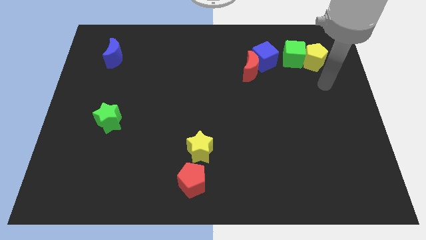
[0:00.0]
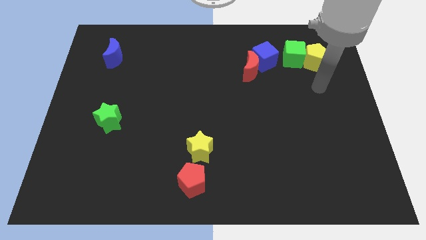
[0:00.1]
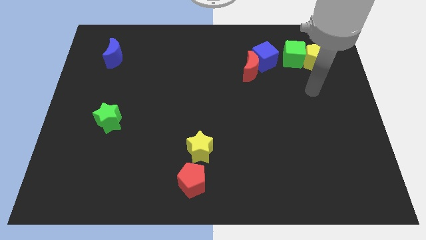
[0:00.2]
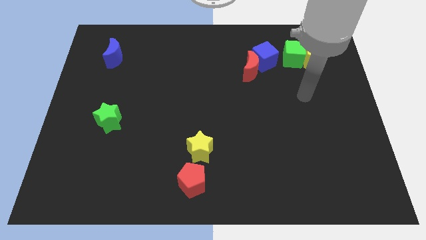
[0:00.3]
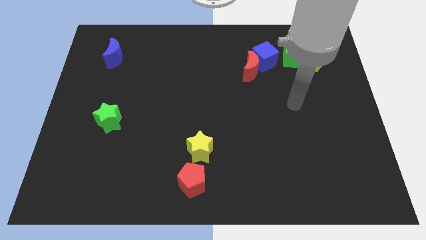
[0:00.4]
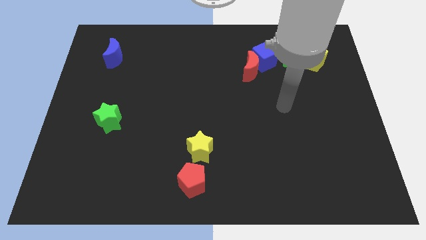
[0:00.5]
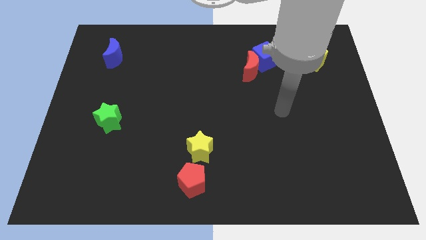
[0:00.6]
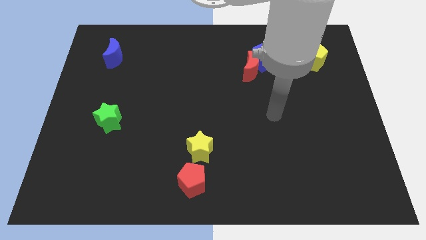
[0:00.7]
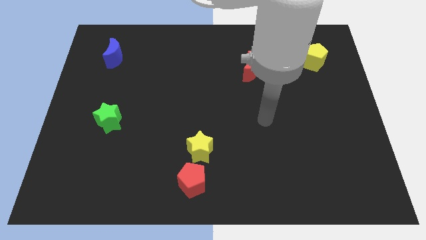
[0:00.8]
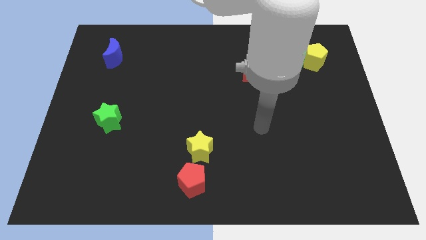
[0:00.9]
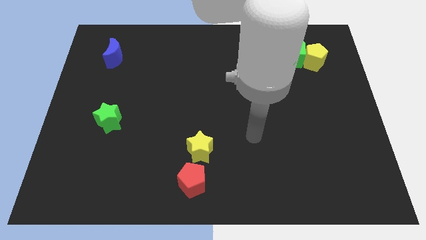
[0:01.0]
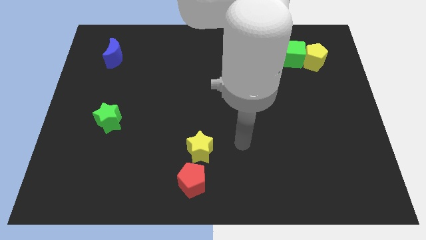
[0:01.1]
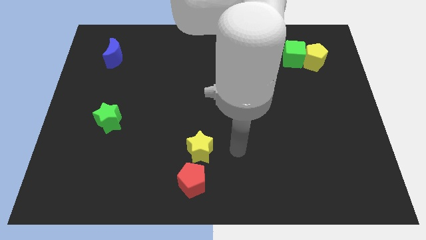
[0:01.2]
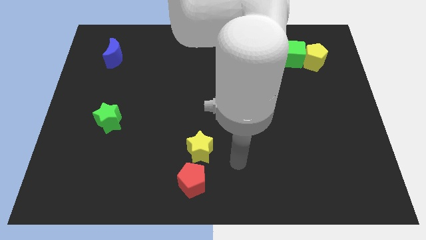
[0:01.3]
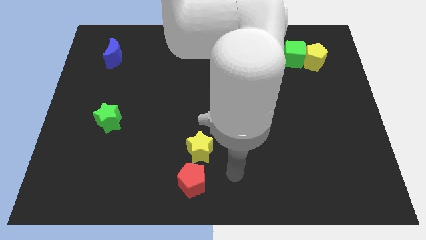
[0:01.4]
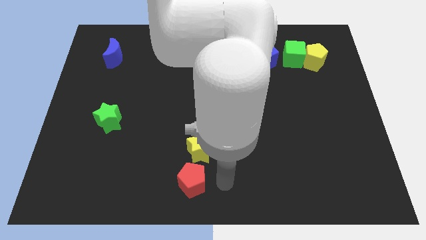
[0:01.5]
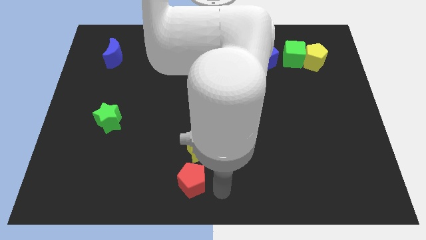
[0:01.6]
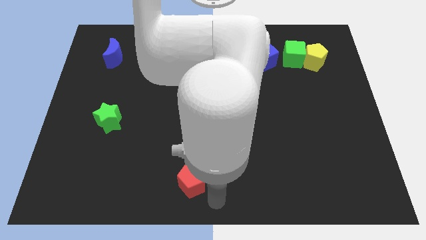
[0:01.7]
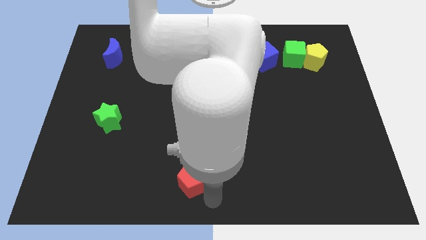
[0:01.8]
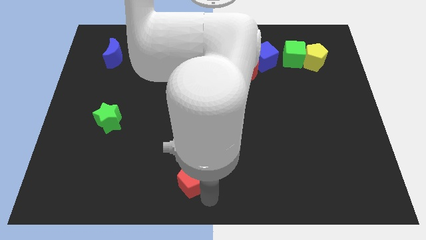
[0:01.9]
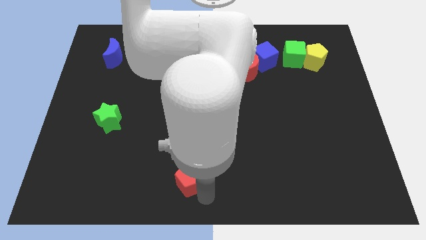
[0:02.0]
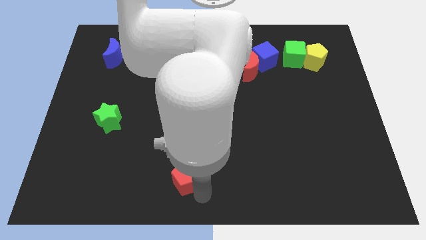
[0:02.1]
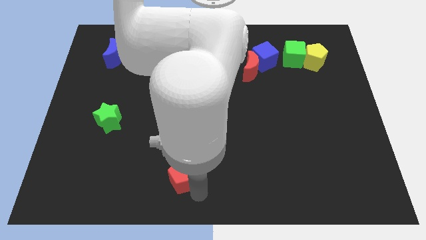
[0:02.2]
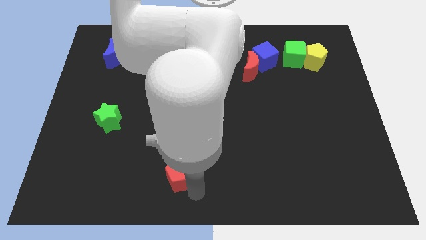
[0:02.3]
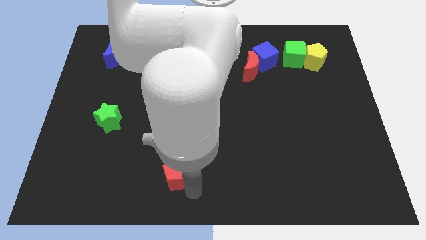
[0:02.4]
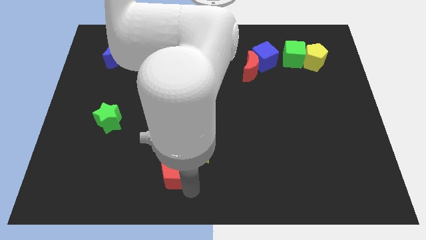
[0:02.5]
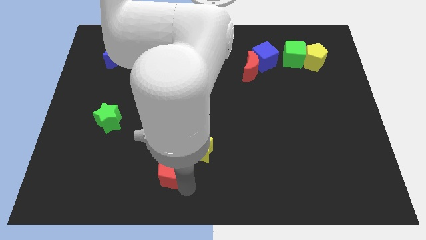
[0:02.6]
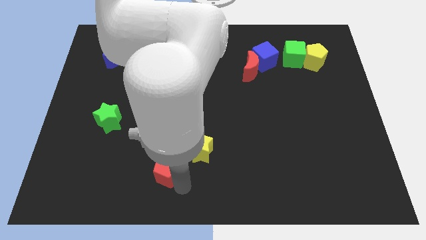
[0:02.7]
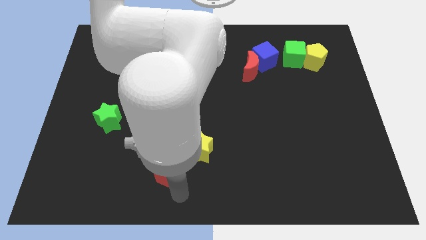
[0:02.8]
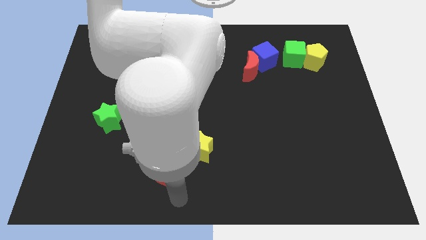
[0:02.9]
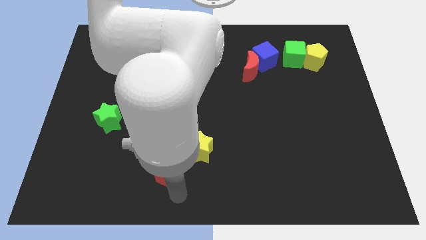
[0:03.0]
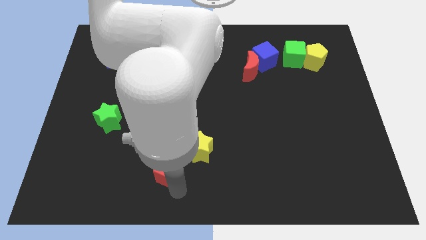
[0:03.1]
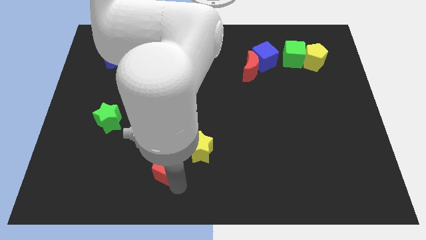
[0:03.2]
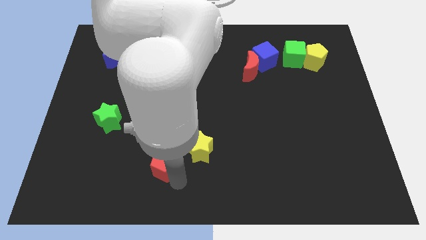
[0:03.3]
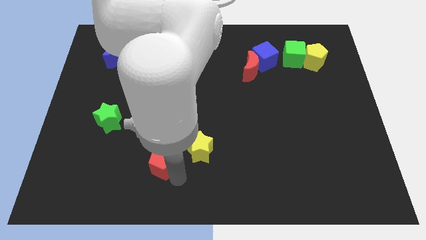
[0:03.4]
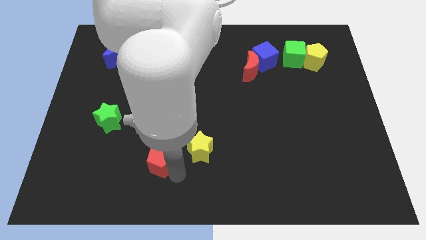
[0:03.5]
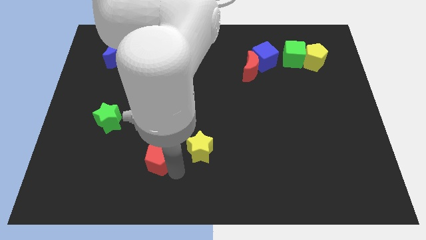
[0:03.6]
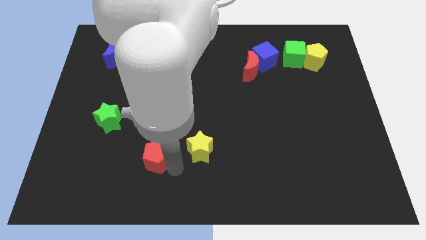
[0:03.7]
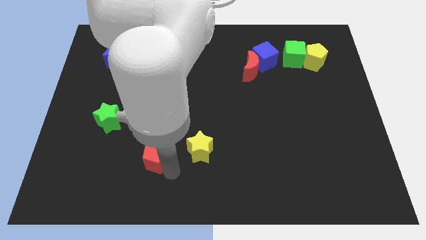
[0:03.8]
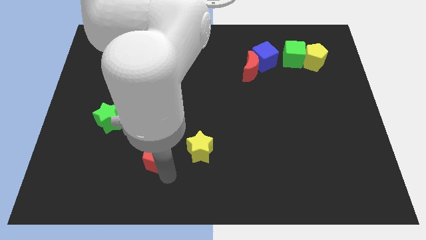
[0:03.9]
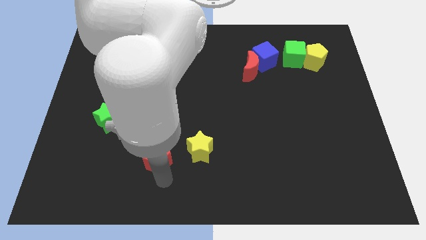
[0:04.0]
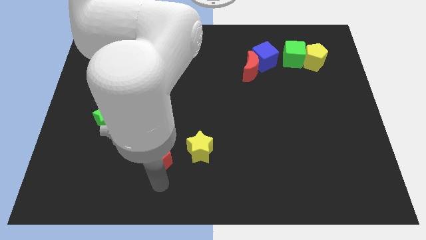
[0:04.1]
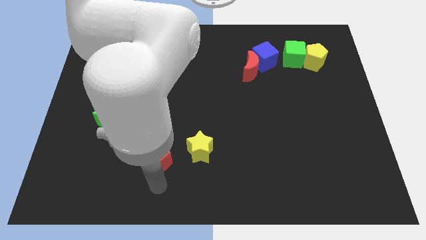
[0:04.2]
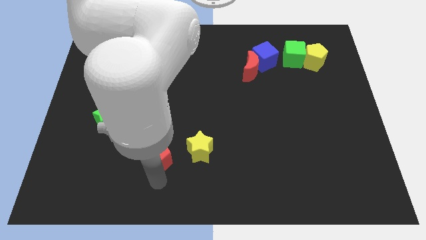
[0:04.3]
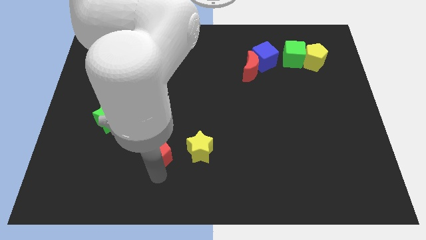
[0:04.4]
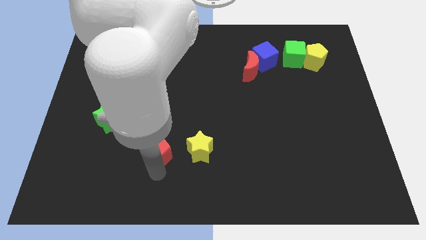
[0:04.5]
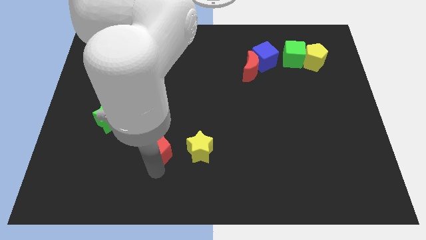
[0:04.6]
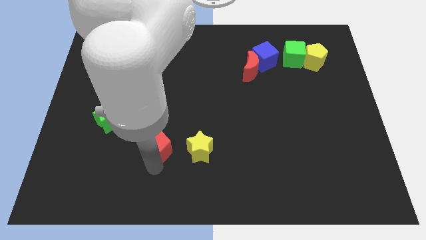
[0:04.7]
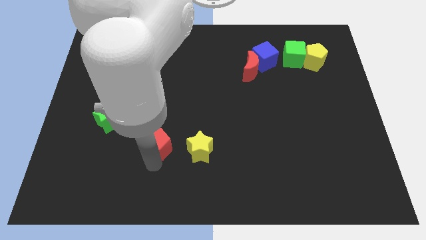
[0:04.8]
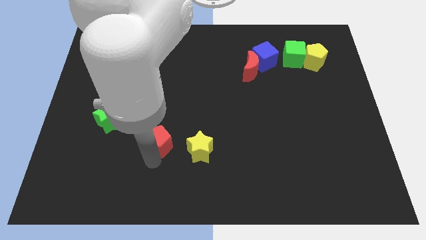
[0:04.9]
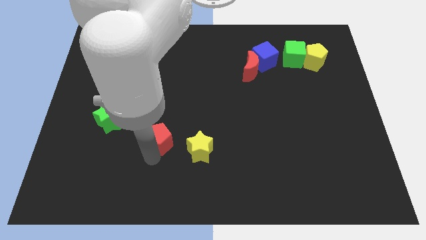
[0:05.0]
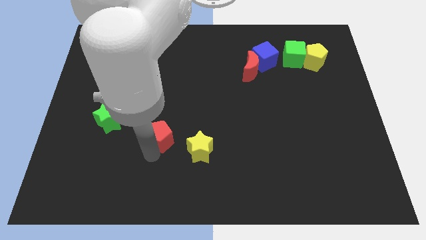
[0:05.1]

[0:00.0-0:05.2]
move the red pentagon to the right of the green star

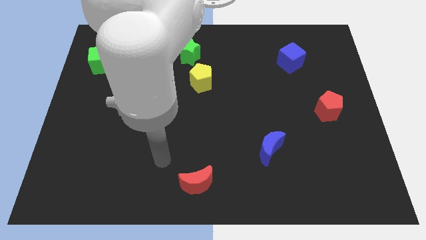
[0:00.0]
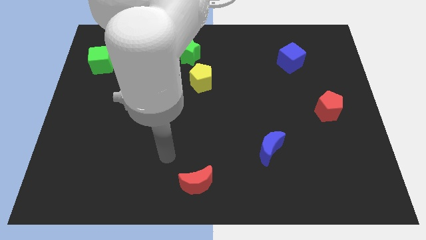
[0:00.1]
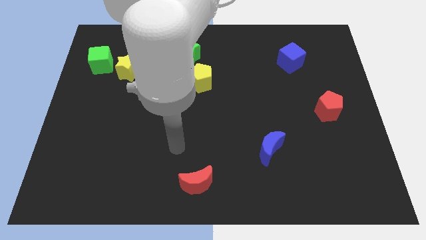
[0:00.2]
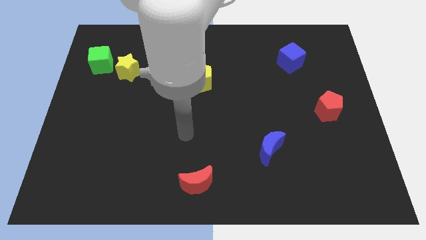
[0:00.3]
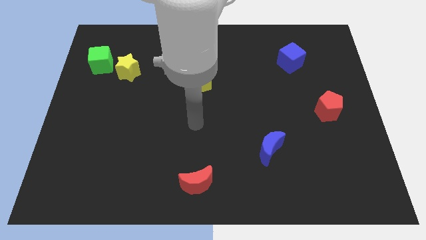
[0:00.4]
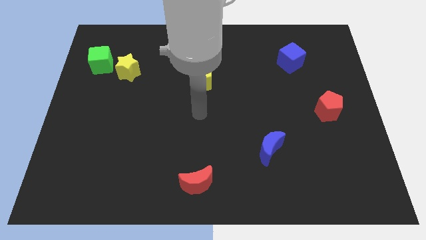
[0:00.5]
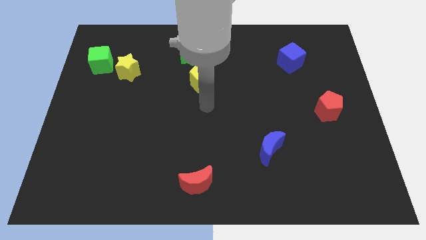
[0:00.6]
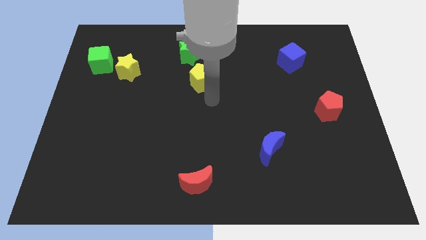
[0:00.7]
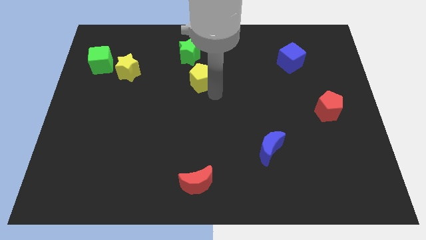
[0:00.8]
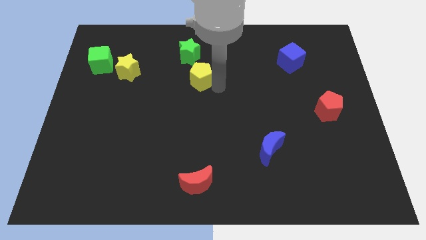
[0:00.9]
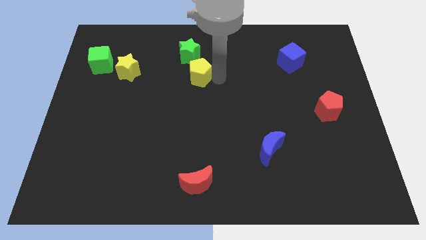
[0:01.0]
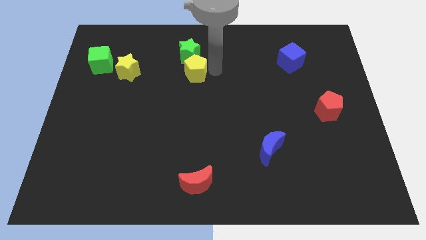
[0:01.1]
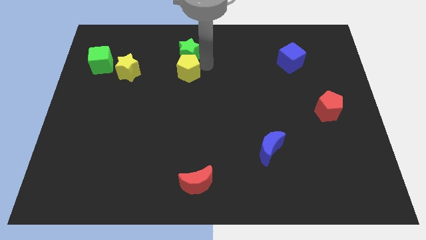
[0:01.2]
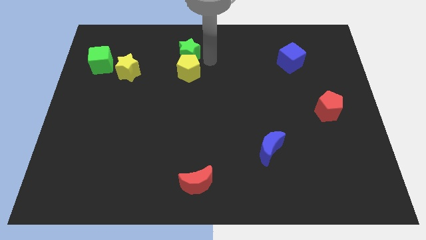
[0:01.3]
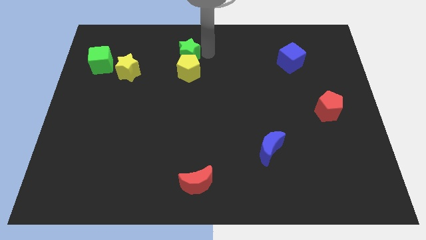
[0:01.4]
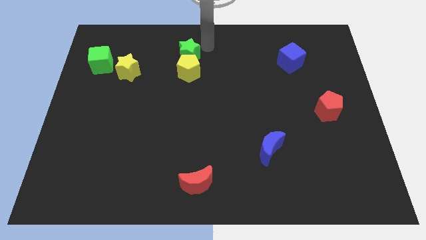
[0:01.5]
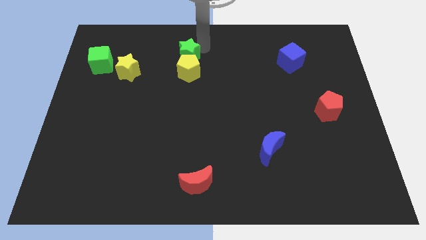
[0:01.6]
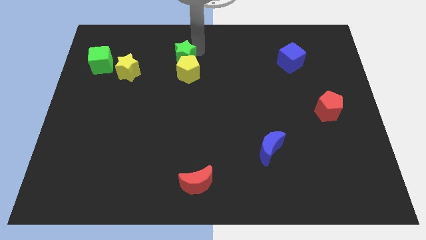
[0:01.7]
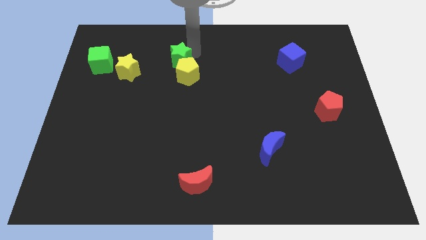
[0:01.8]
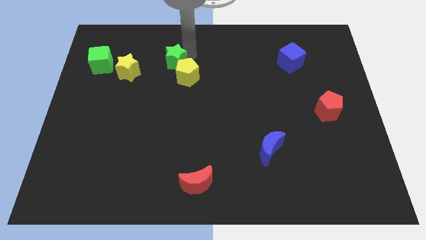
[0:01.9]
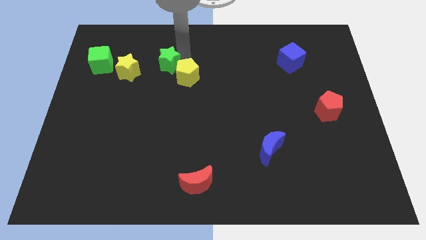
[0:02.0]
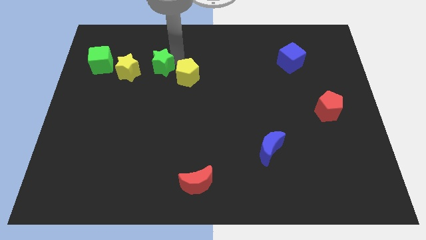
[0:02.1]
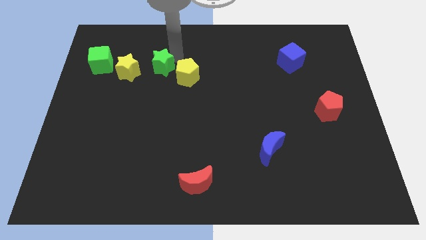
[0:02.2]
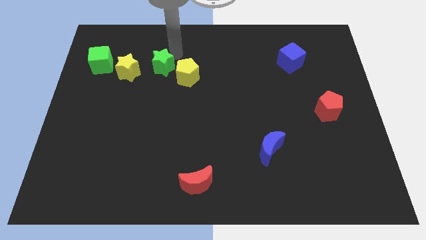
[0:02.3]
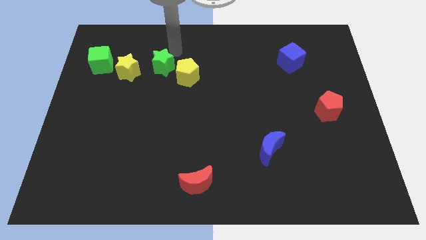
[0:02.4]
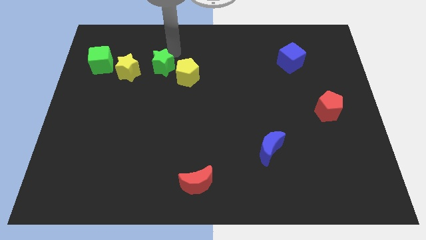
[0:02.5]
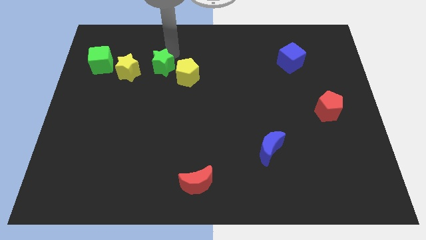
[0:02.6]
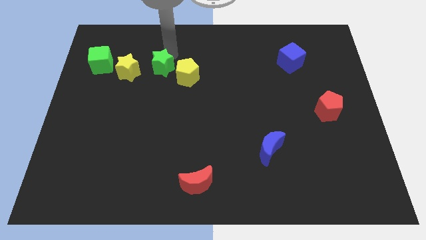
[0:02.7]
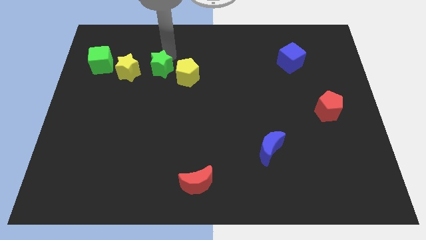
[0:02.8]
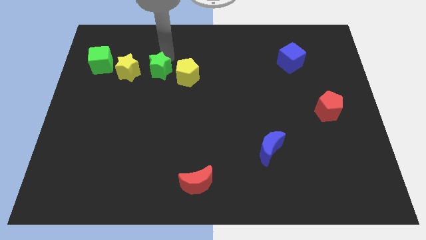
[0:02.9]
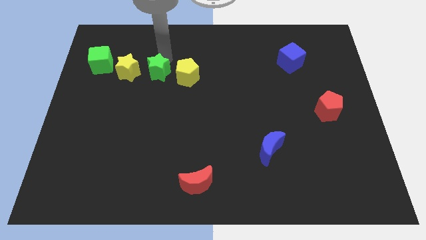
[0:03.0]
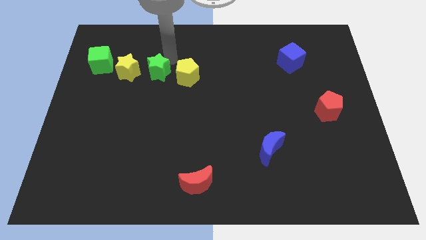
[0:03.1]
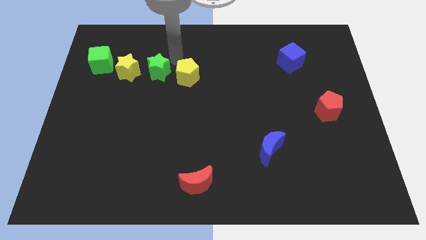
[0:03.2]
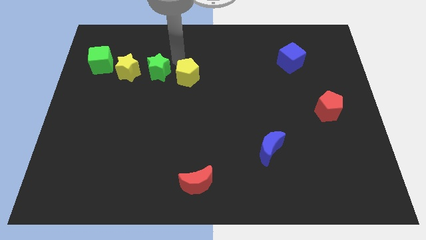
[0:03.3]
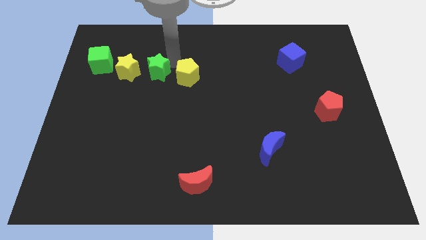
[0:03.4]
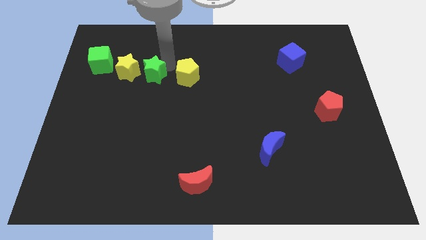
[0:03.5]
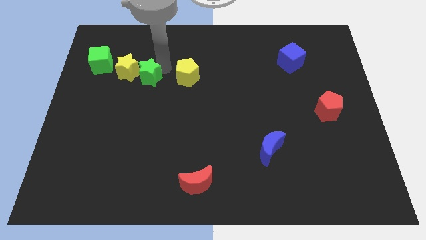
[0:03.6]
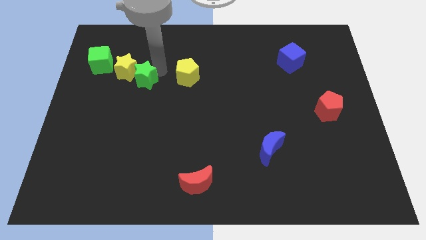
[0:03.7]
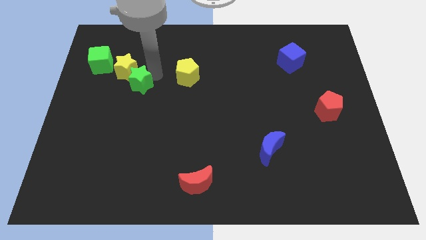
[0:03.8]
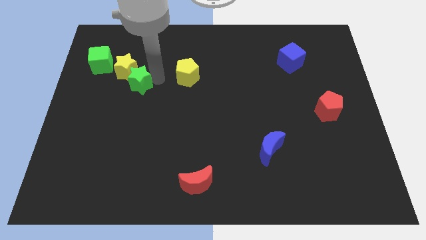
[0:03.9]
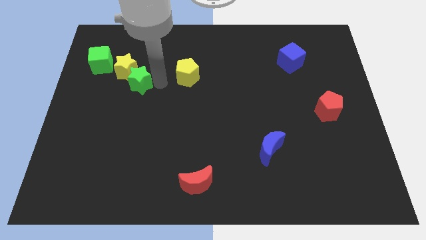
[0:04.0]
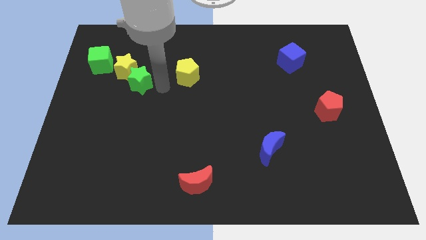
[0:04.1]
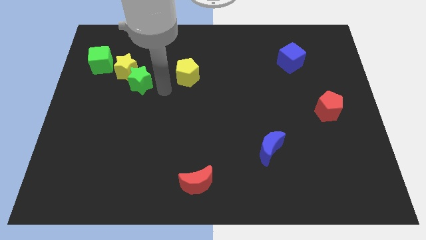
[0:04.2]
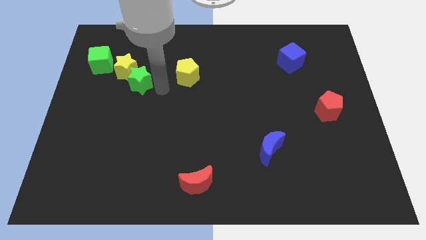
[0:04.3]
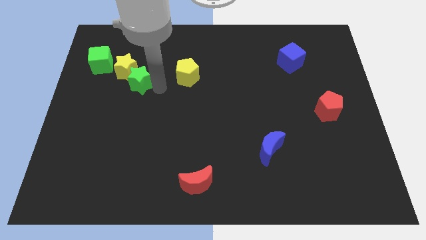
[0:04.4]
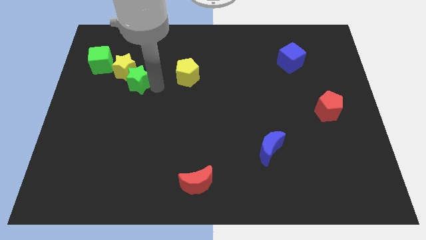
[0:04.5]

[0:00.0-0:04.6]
move the green star to the bottom right of the green cube
